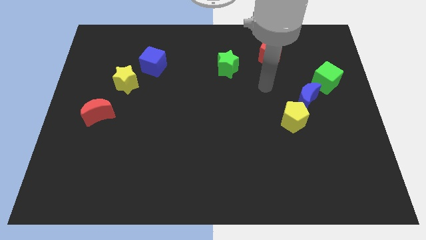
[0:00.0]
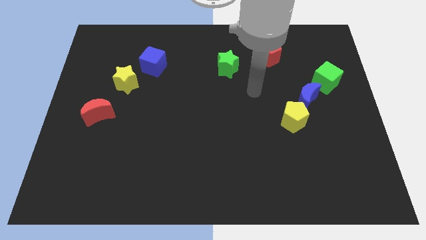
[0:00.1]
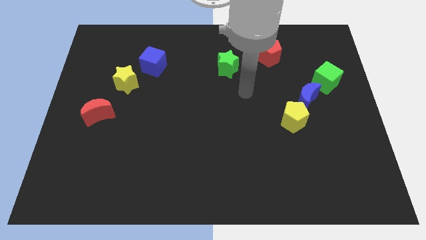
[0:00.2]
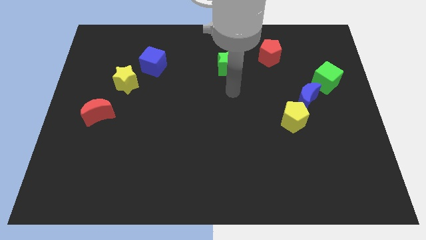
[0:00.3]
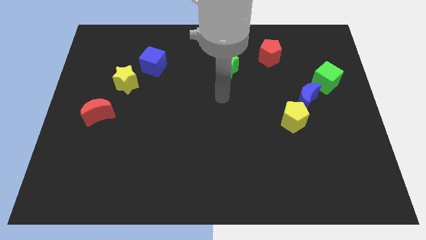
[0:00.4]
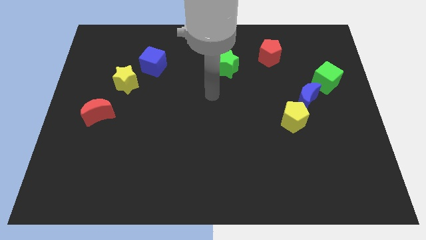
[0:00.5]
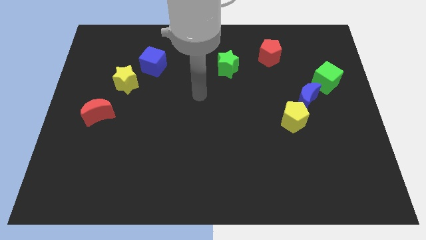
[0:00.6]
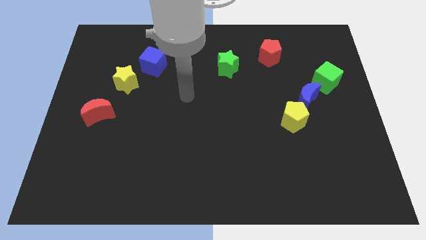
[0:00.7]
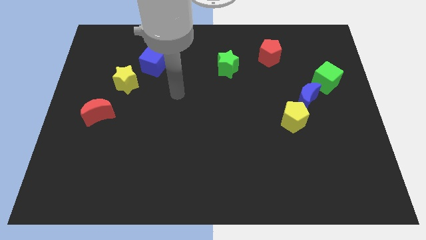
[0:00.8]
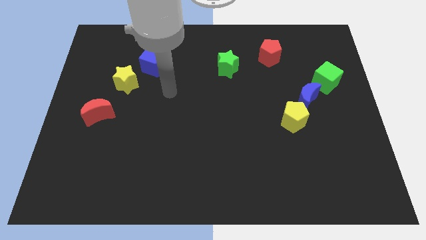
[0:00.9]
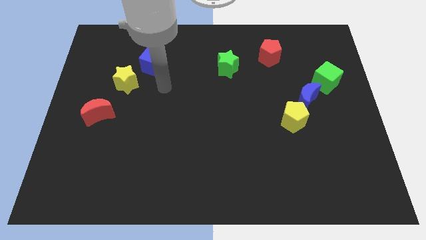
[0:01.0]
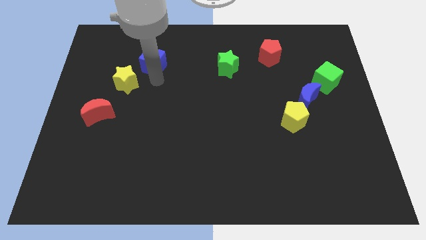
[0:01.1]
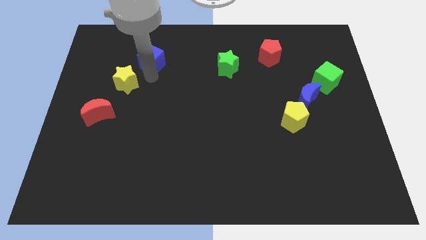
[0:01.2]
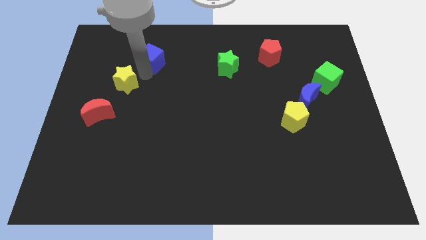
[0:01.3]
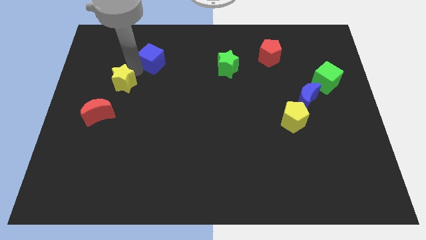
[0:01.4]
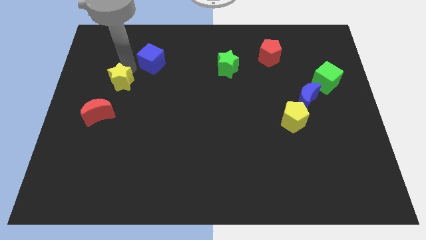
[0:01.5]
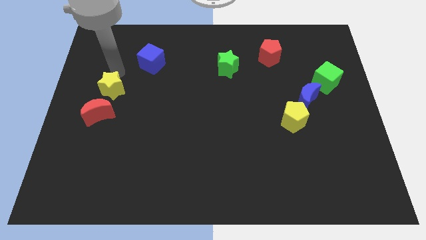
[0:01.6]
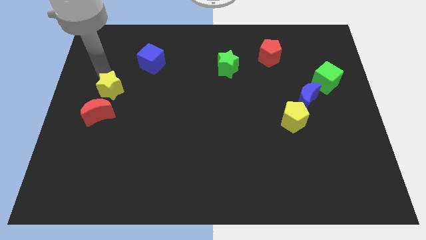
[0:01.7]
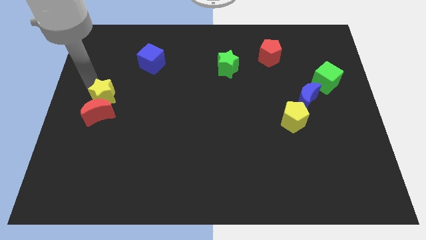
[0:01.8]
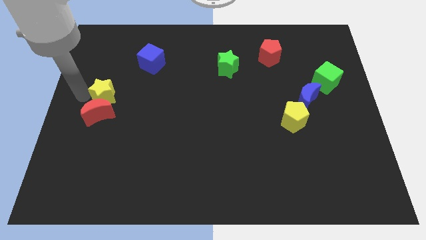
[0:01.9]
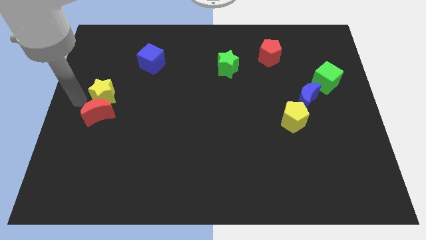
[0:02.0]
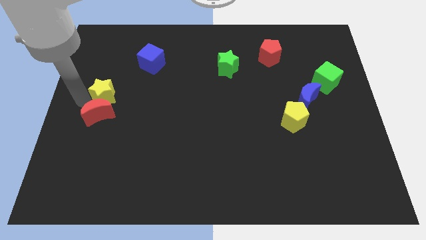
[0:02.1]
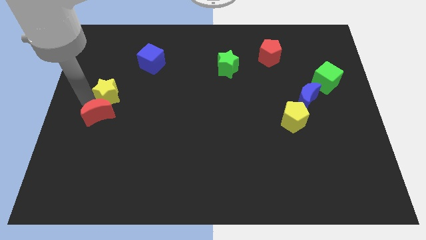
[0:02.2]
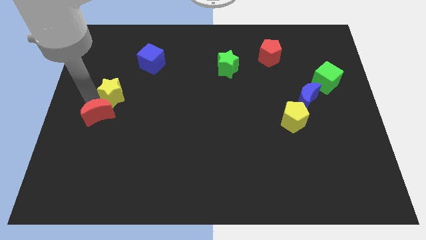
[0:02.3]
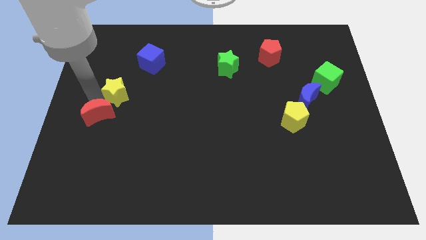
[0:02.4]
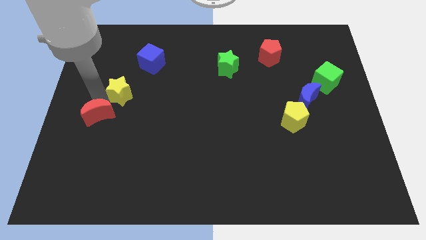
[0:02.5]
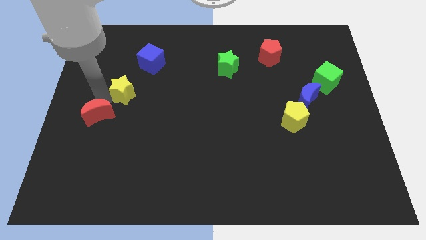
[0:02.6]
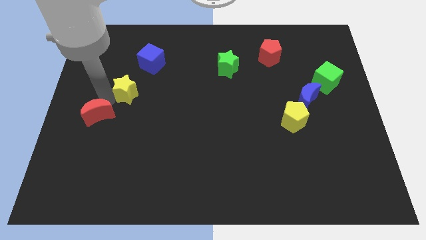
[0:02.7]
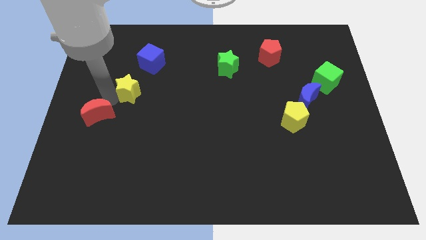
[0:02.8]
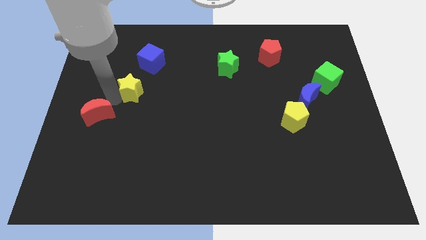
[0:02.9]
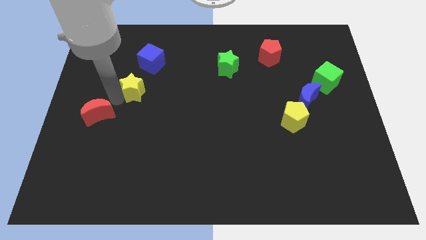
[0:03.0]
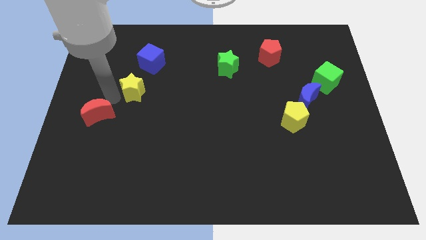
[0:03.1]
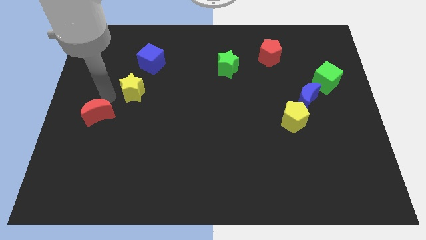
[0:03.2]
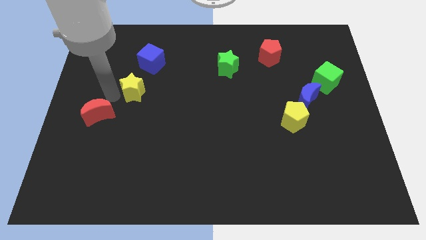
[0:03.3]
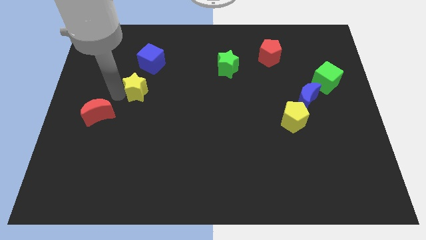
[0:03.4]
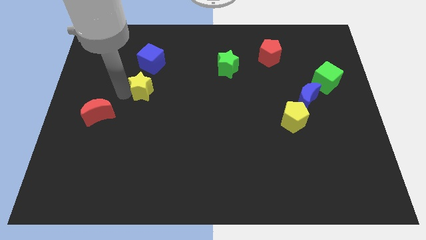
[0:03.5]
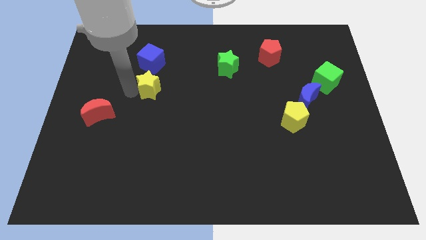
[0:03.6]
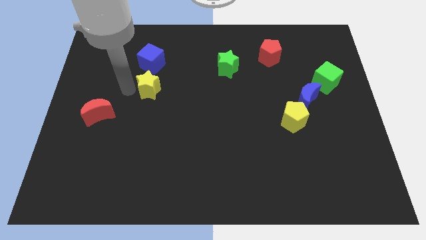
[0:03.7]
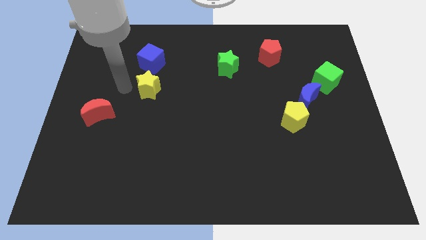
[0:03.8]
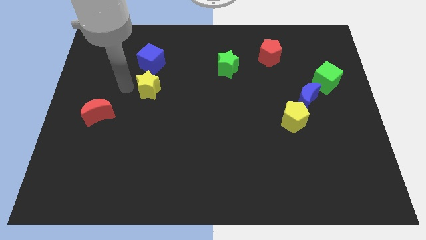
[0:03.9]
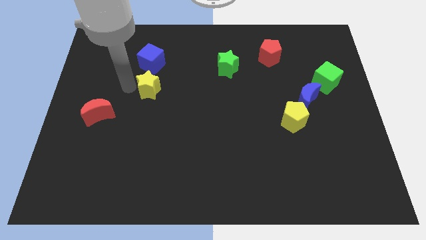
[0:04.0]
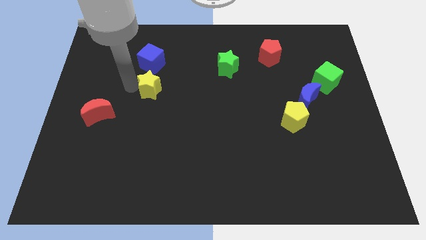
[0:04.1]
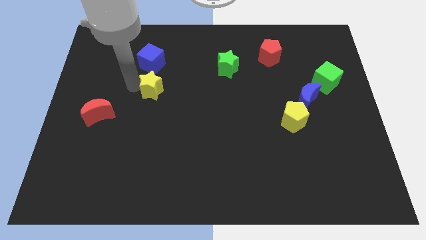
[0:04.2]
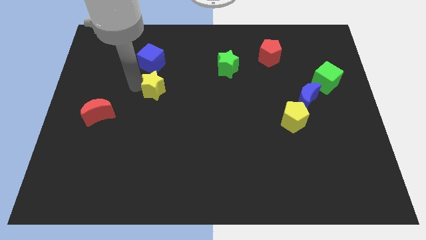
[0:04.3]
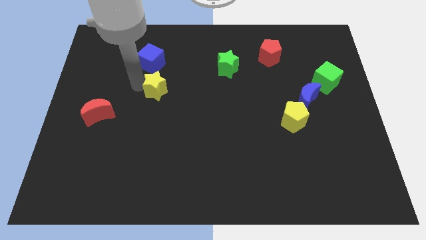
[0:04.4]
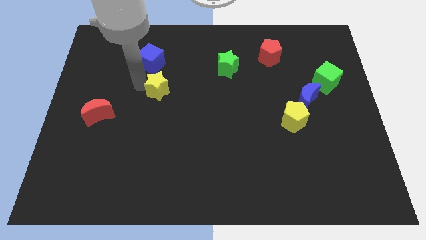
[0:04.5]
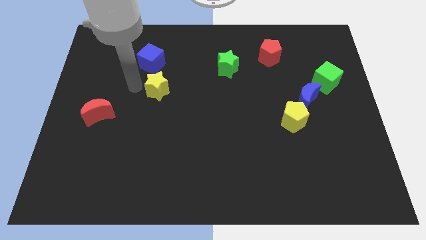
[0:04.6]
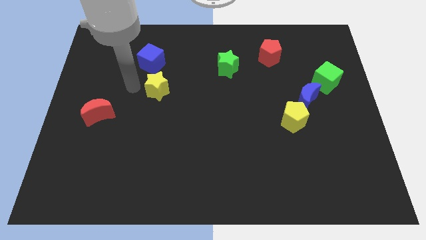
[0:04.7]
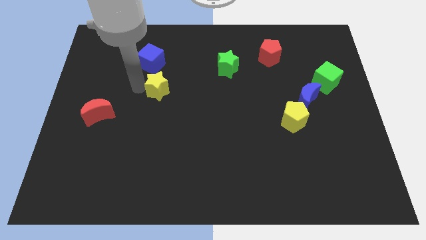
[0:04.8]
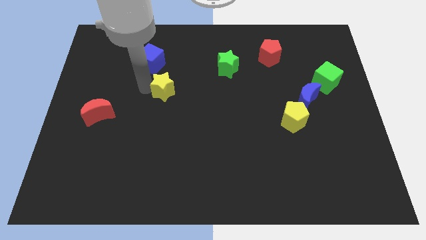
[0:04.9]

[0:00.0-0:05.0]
move the yellow star to the center of the board

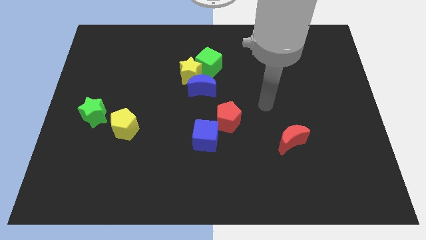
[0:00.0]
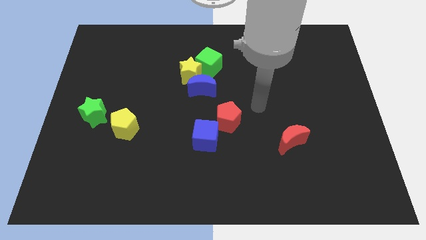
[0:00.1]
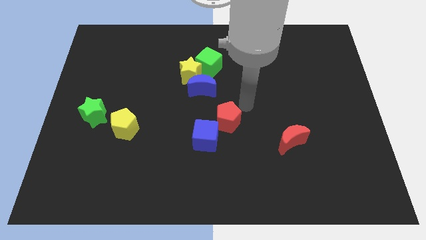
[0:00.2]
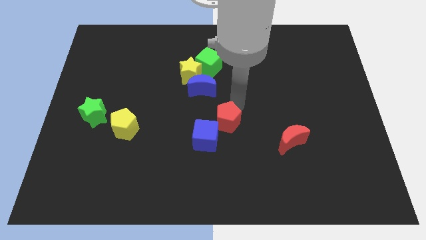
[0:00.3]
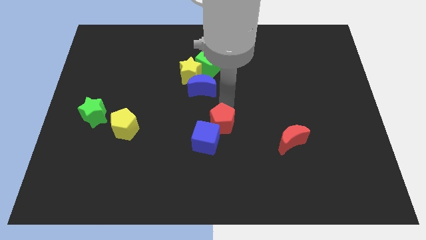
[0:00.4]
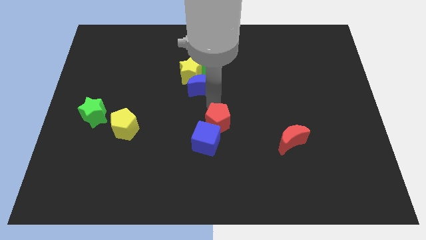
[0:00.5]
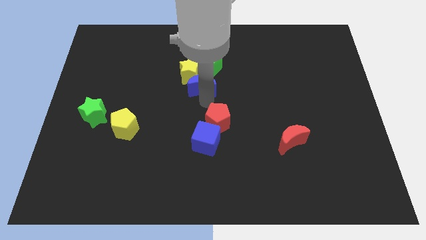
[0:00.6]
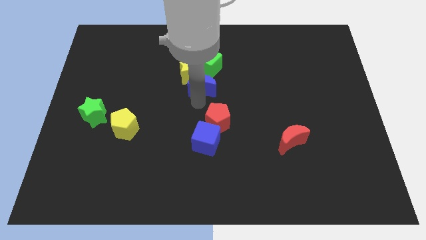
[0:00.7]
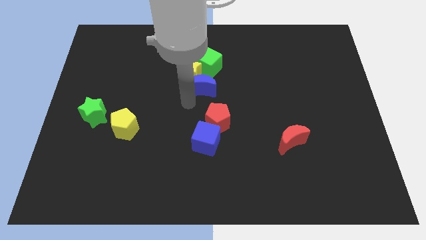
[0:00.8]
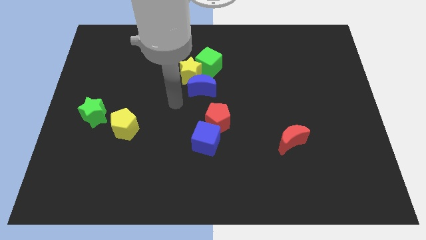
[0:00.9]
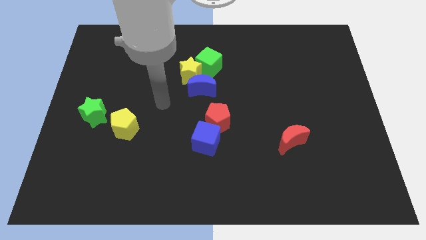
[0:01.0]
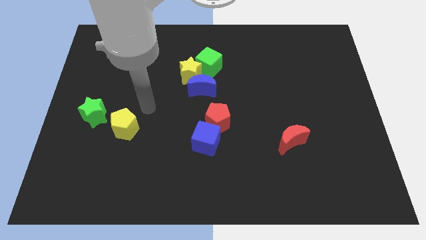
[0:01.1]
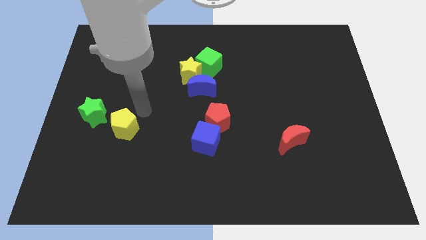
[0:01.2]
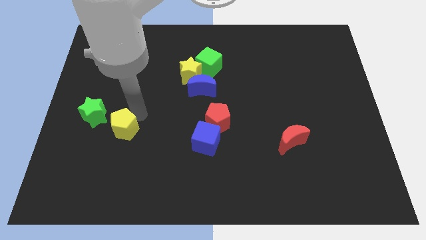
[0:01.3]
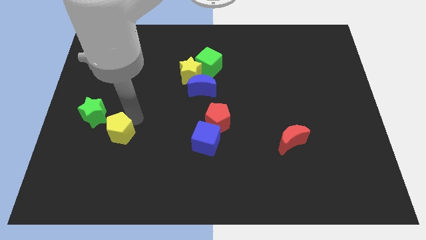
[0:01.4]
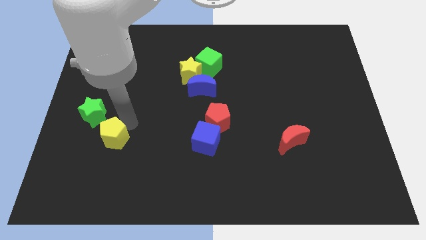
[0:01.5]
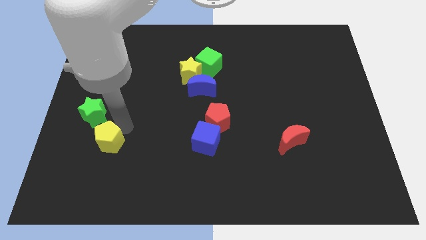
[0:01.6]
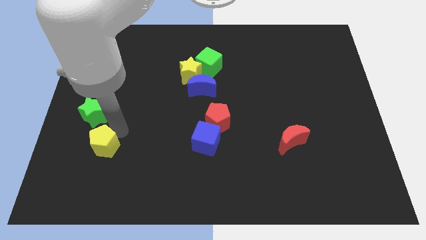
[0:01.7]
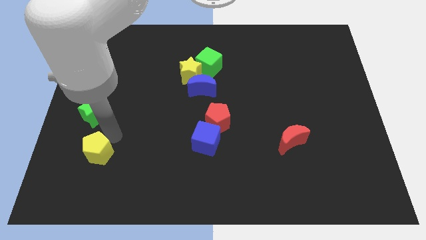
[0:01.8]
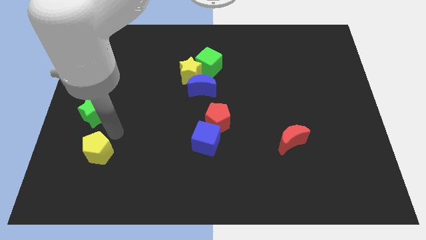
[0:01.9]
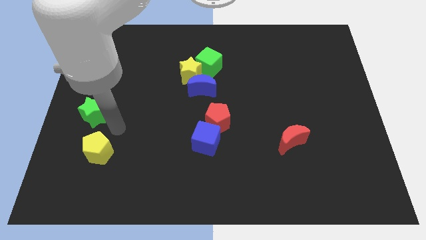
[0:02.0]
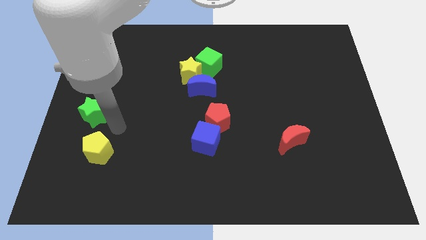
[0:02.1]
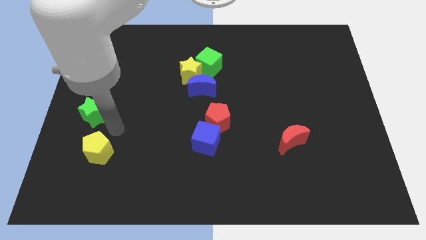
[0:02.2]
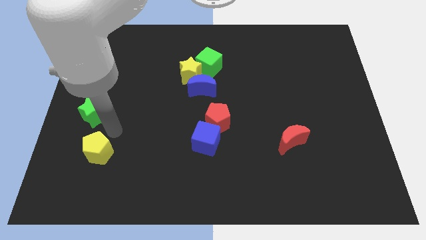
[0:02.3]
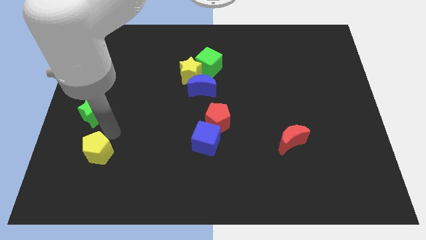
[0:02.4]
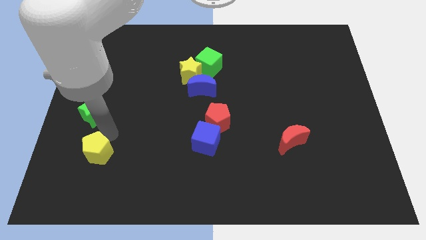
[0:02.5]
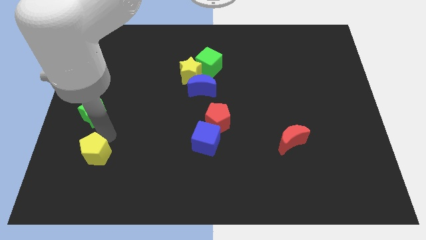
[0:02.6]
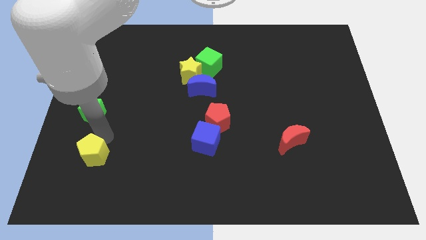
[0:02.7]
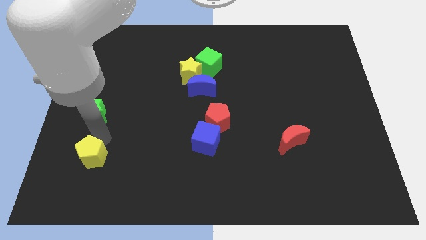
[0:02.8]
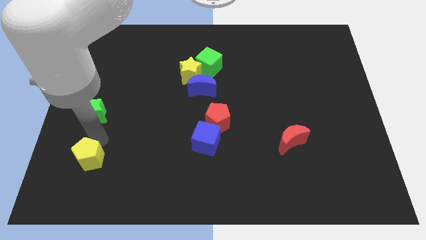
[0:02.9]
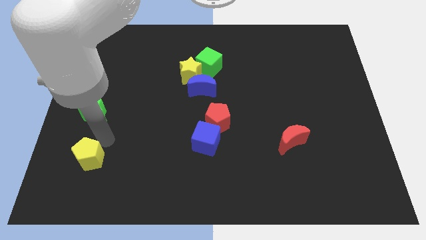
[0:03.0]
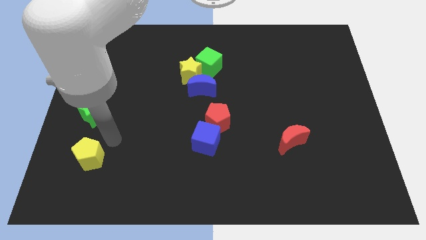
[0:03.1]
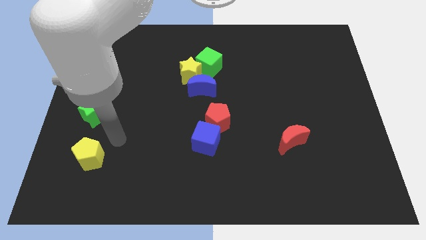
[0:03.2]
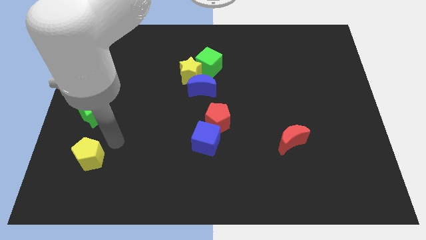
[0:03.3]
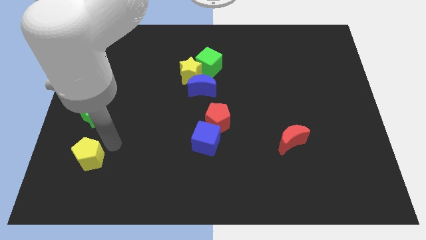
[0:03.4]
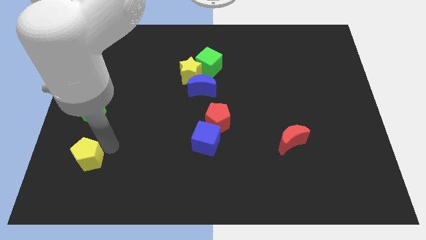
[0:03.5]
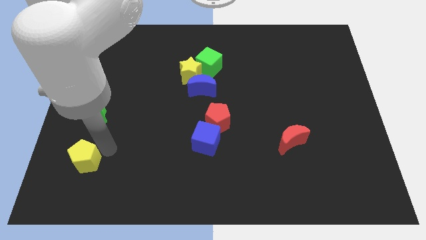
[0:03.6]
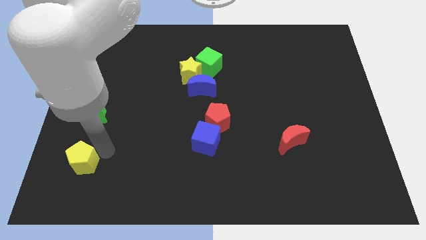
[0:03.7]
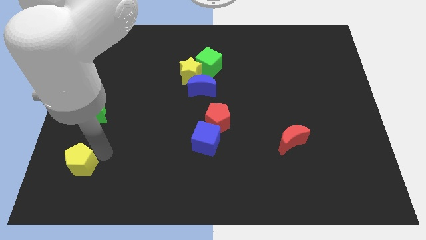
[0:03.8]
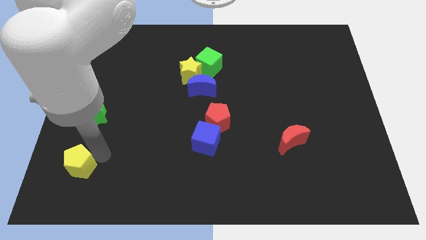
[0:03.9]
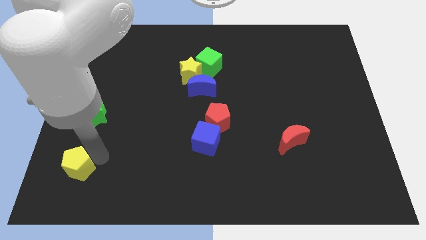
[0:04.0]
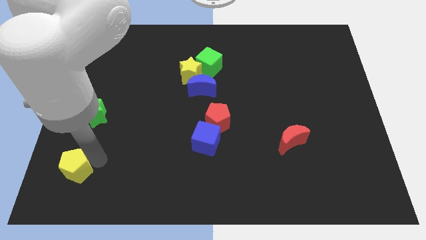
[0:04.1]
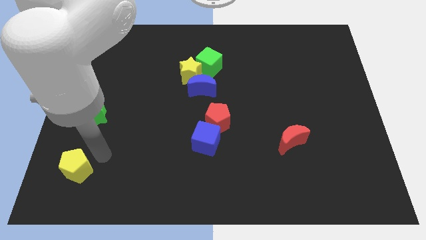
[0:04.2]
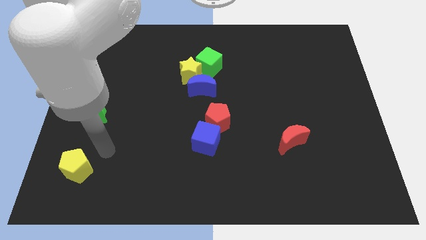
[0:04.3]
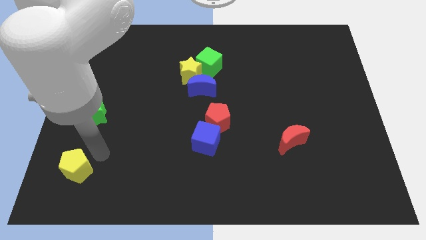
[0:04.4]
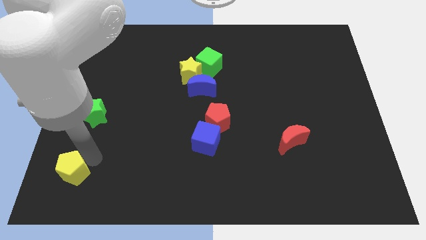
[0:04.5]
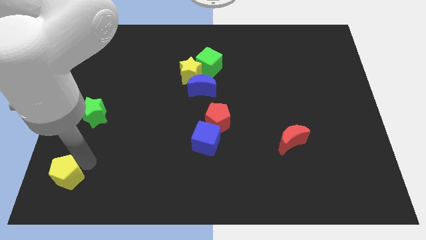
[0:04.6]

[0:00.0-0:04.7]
move the yellow pentagon to the bottom left corner
